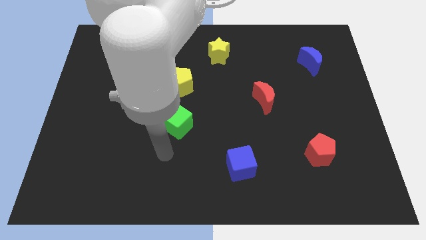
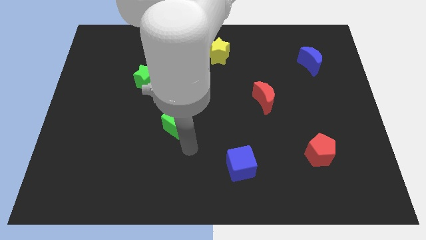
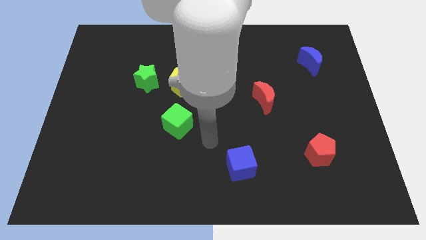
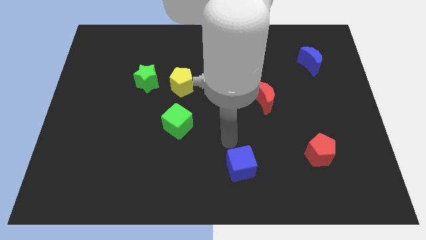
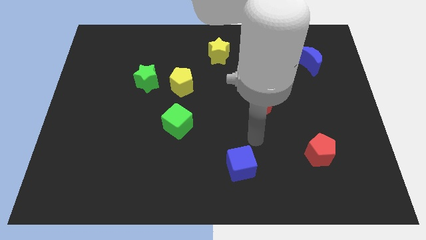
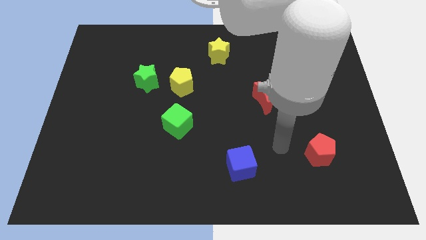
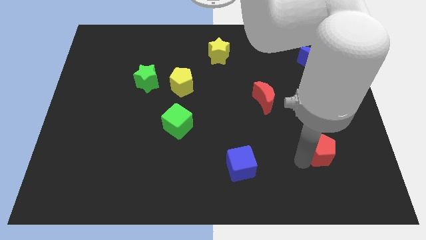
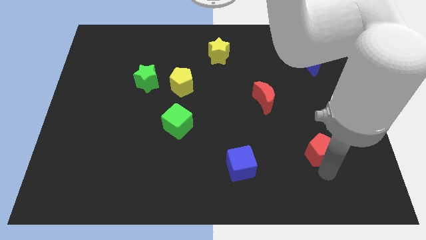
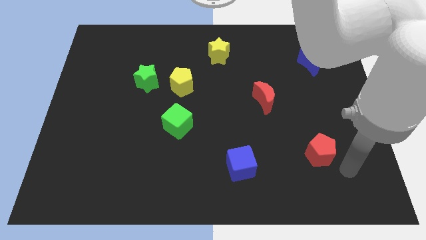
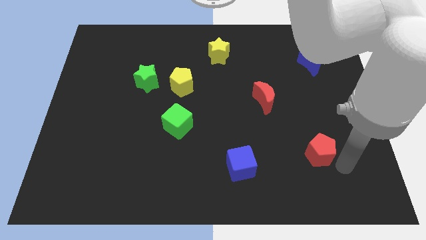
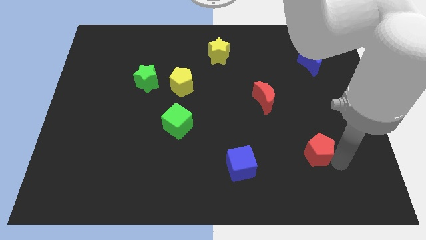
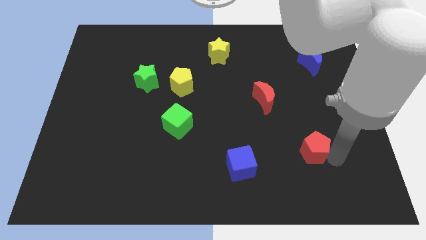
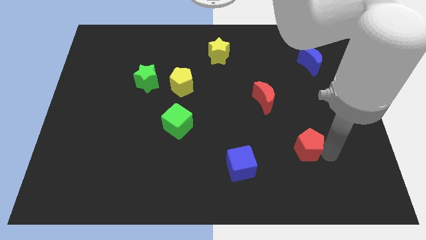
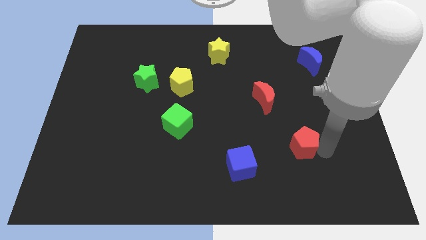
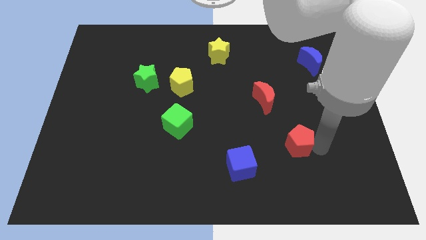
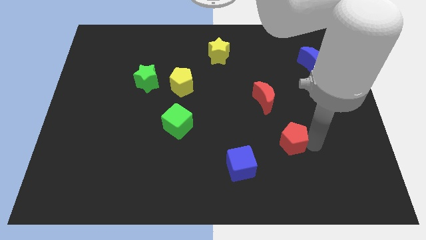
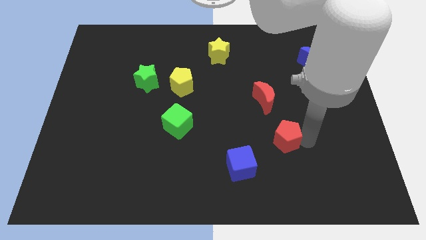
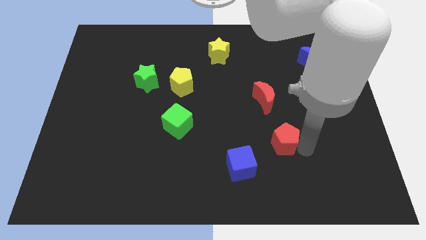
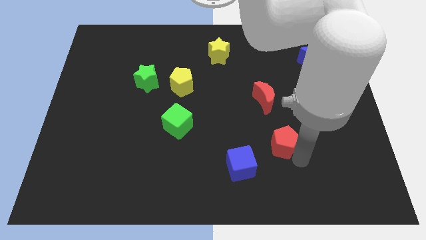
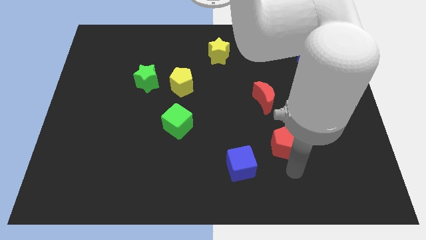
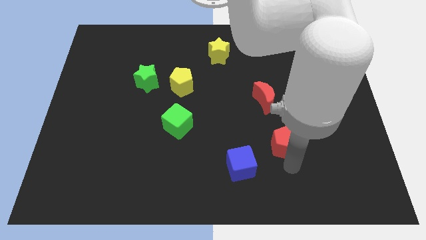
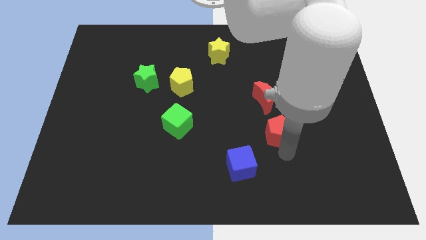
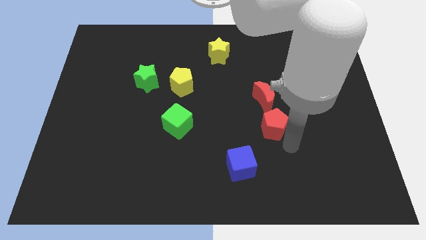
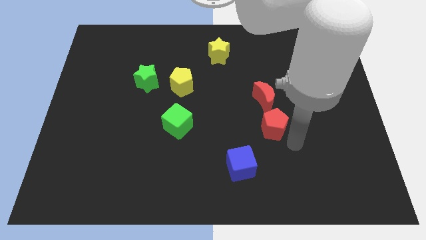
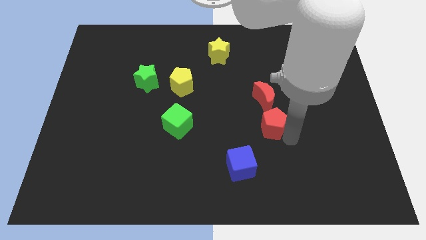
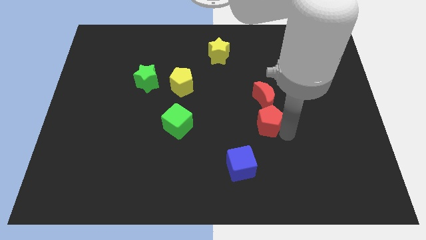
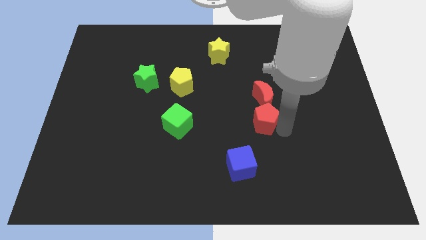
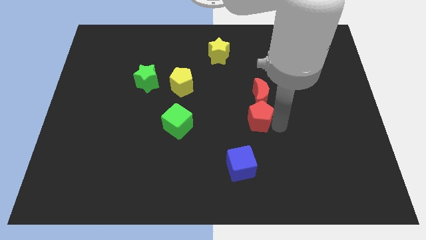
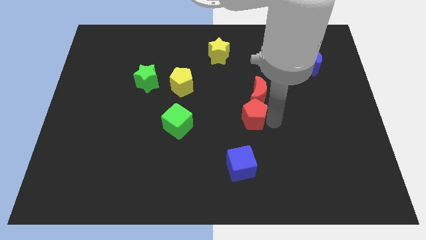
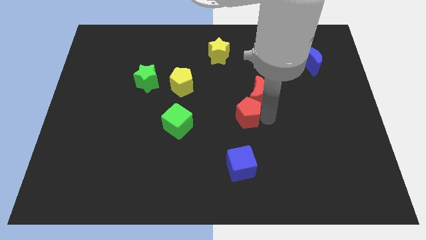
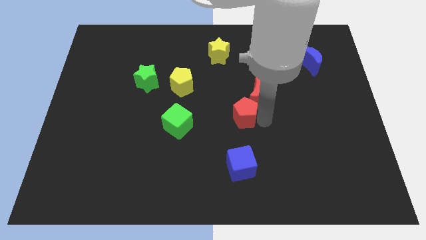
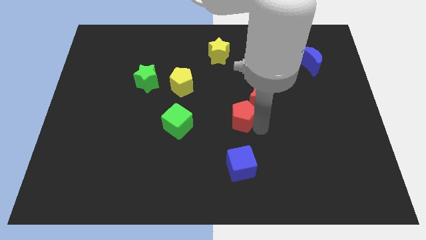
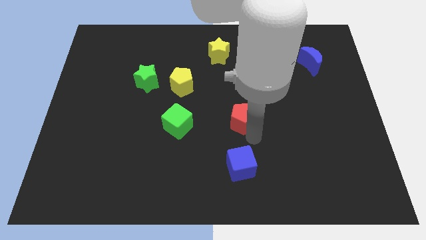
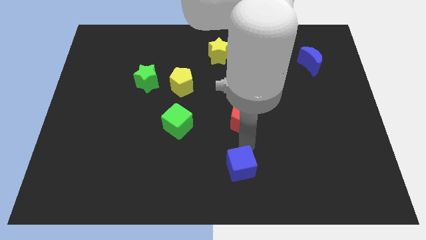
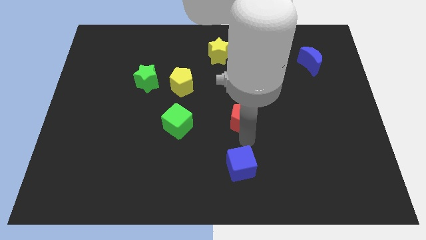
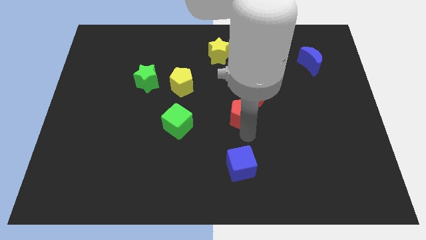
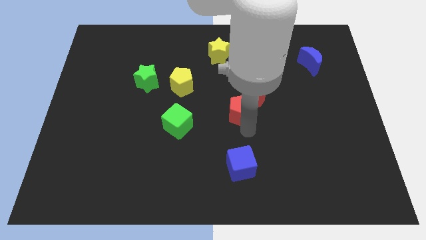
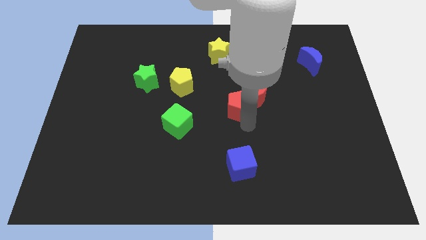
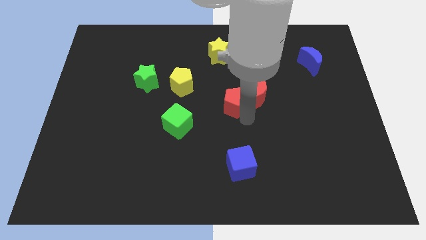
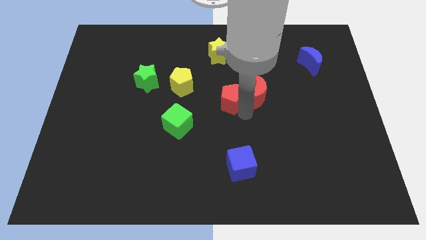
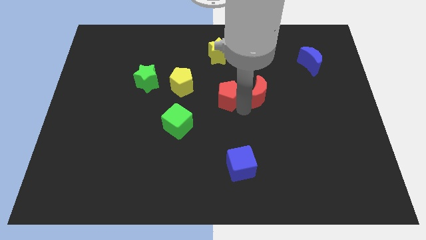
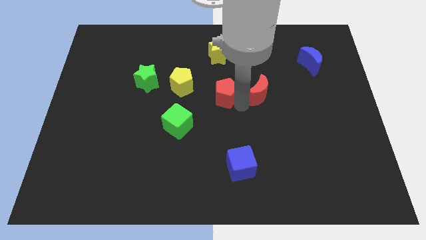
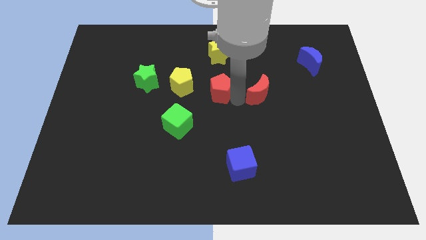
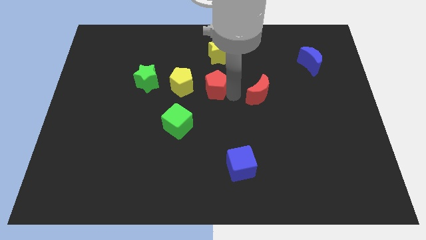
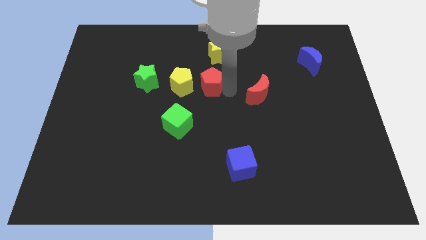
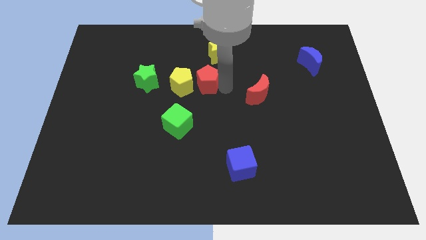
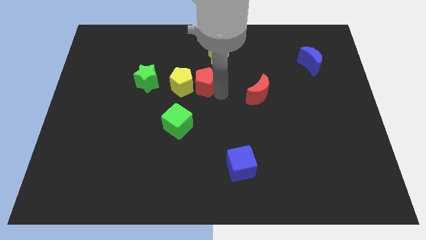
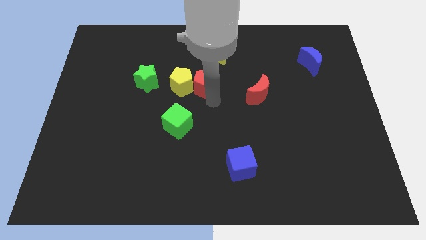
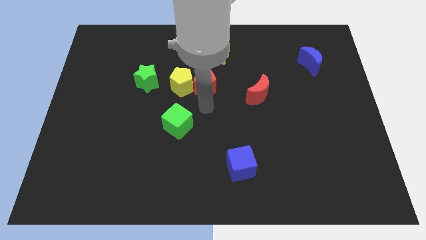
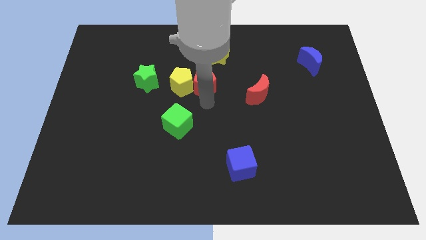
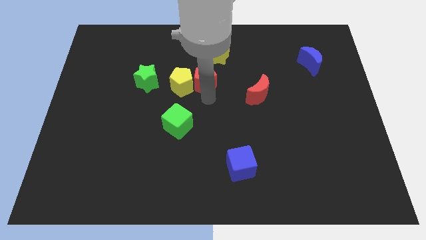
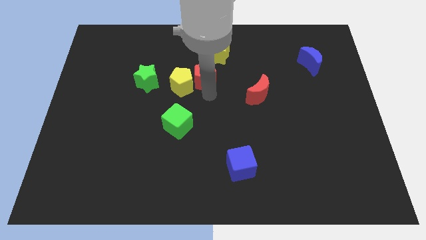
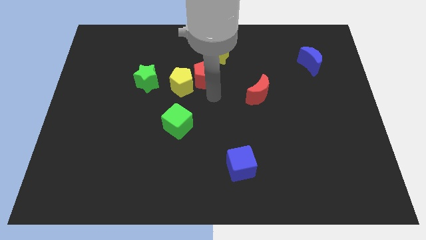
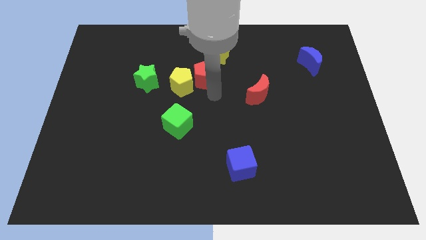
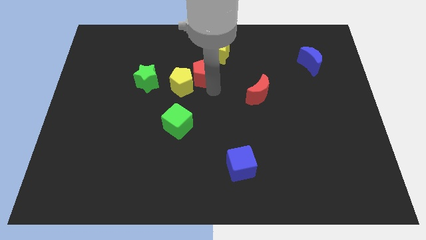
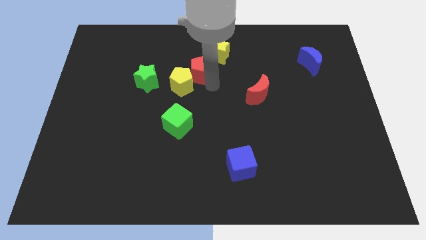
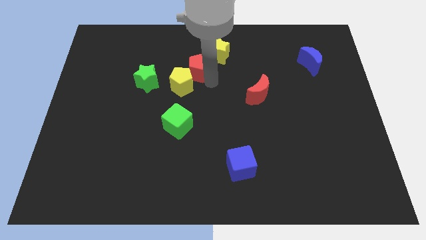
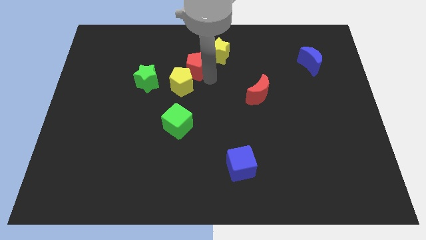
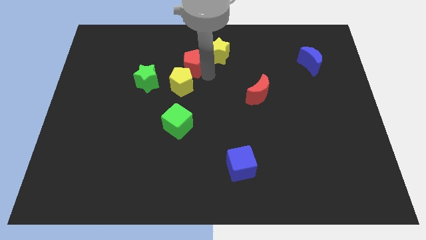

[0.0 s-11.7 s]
move the red pentagon just left of the yellow star

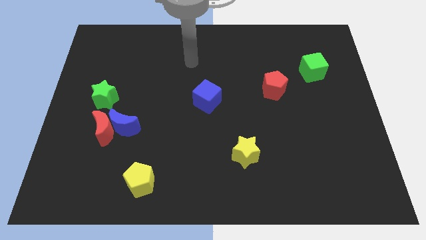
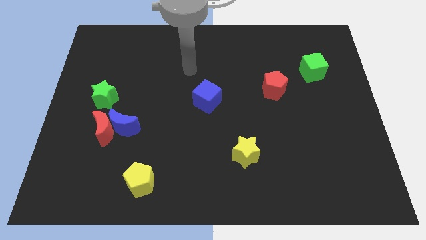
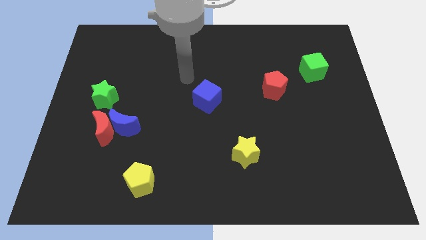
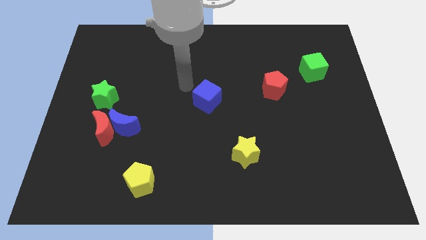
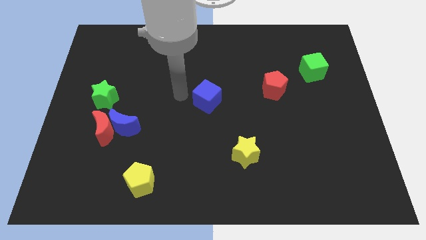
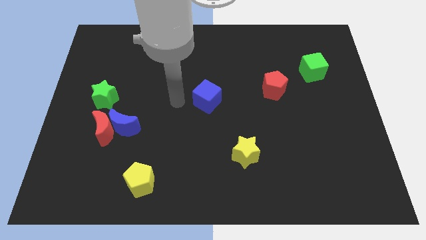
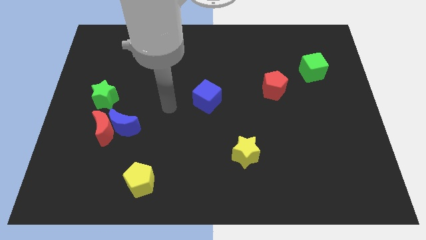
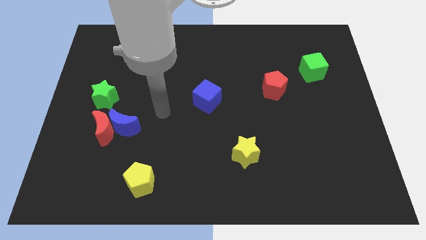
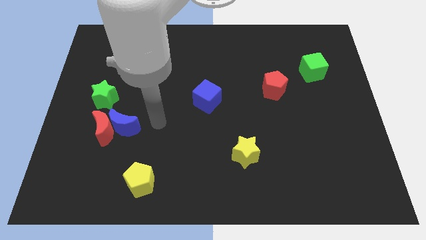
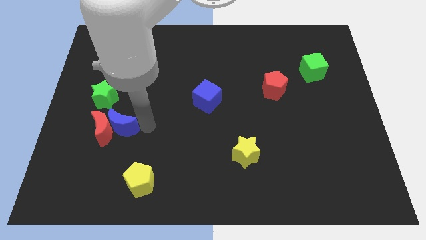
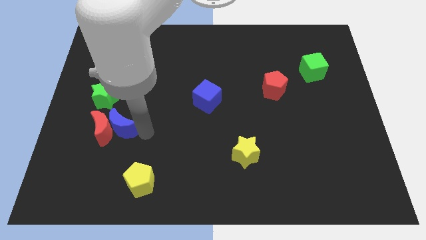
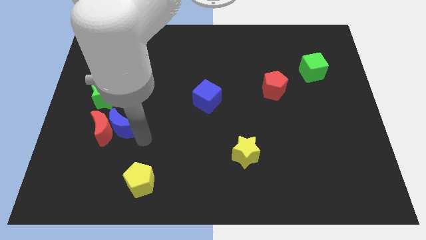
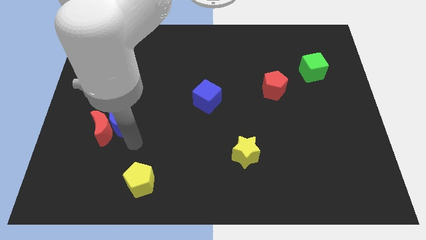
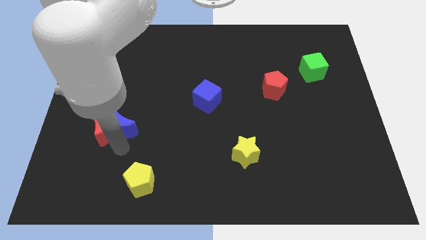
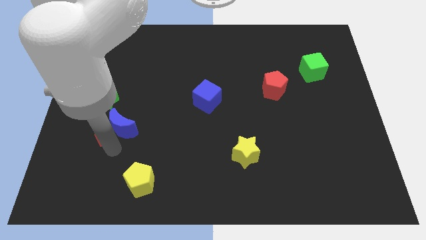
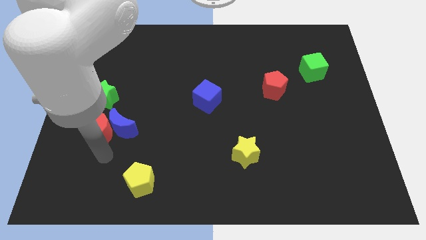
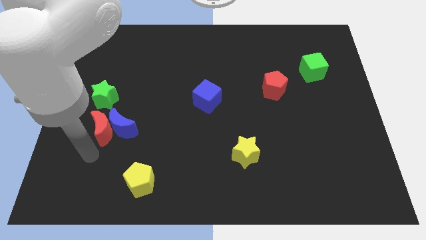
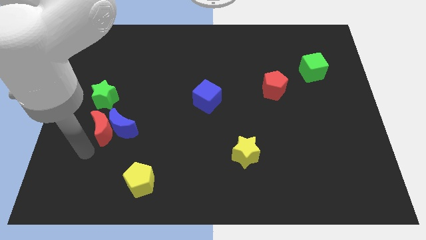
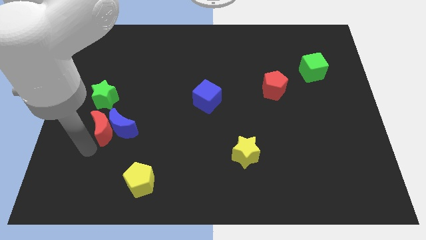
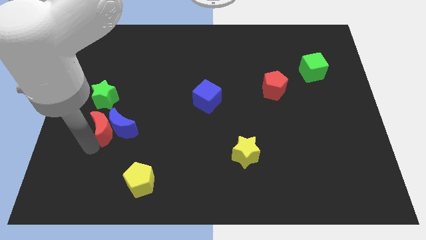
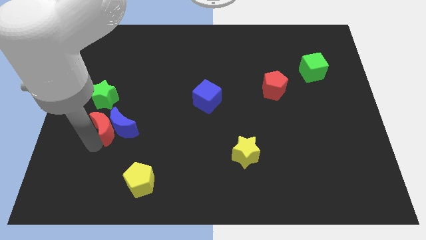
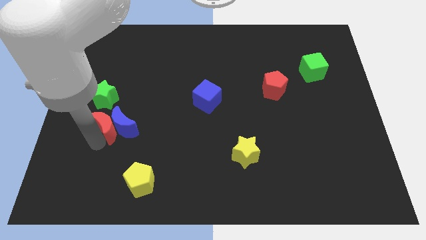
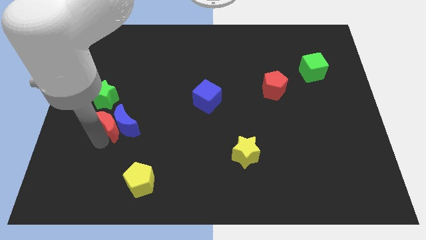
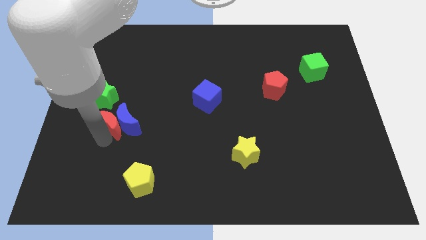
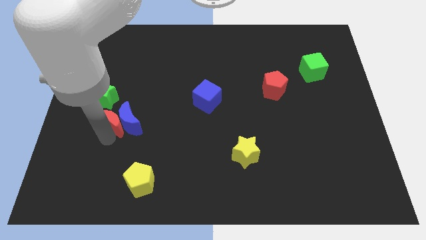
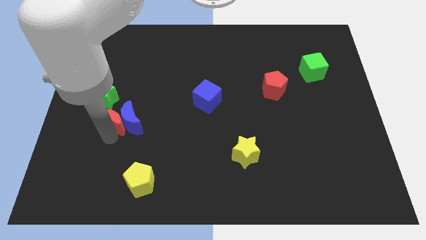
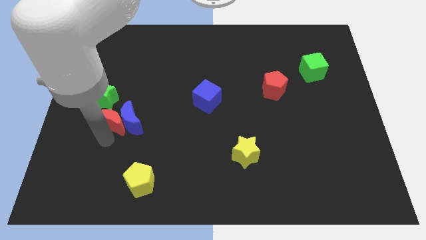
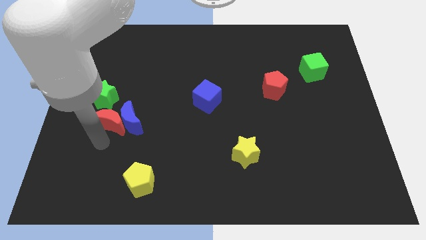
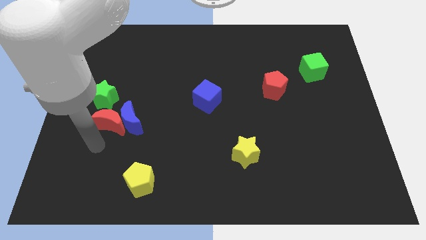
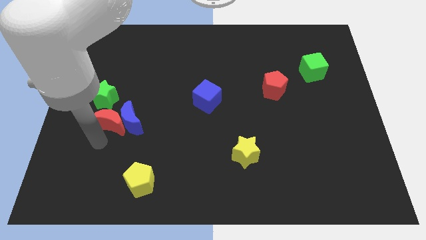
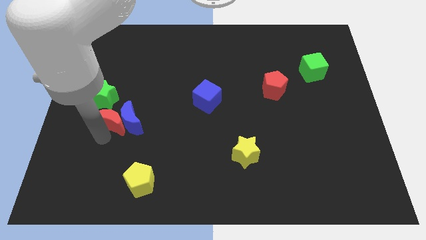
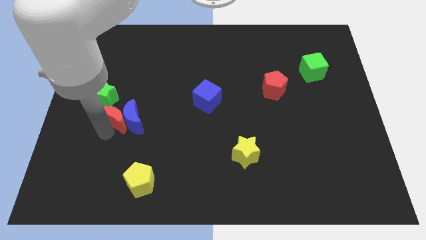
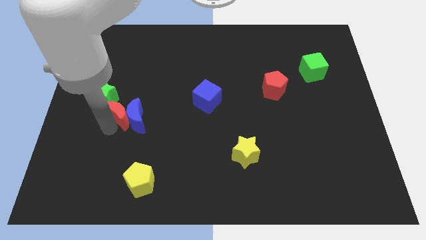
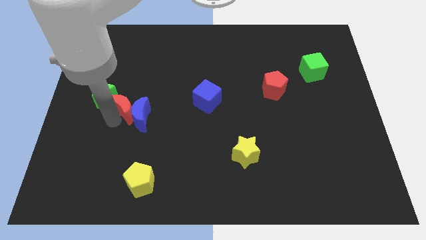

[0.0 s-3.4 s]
slide the red moon to the right side of the green star
